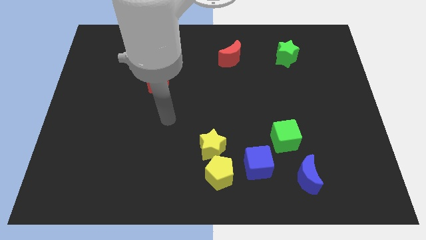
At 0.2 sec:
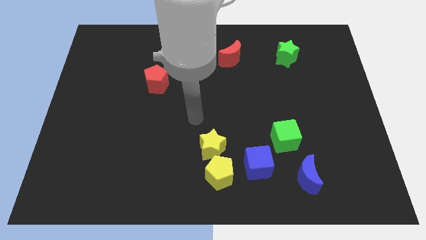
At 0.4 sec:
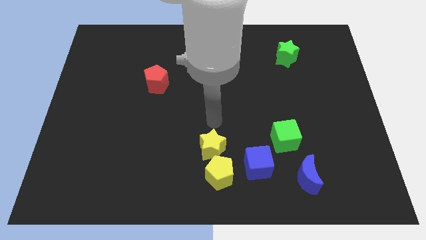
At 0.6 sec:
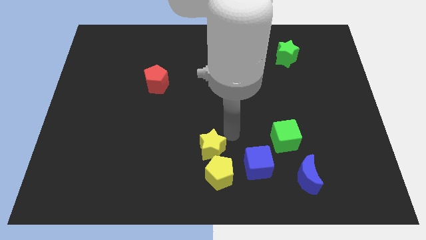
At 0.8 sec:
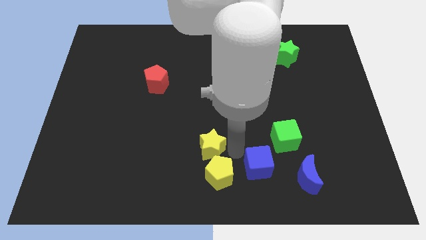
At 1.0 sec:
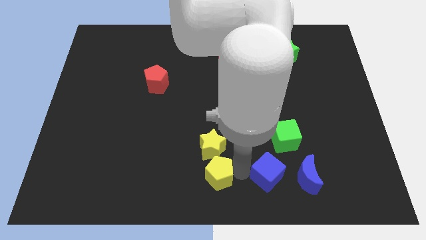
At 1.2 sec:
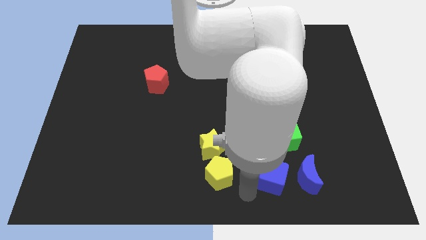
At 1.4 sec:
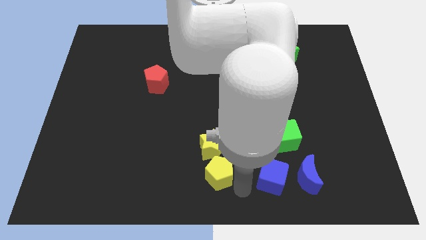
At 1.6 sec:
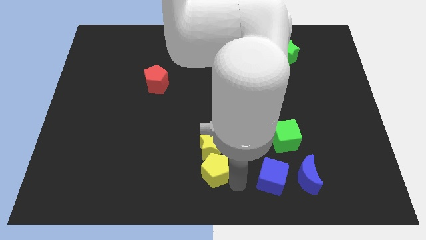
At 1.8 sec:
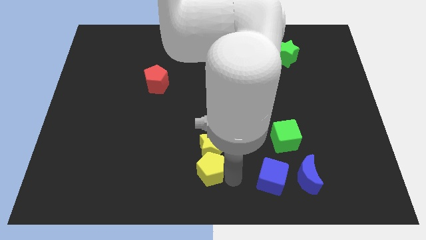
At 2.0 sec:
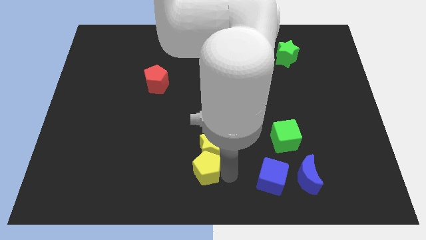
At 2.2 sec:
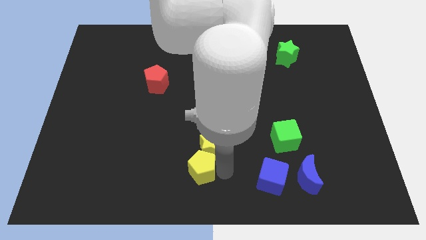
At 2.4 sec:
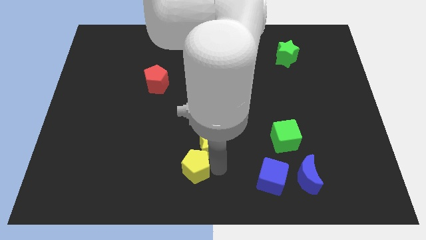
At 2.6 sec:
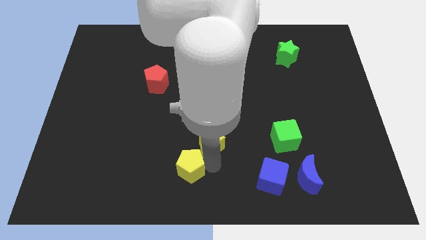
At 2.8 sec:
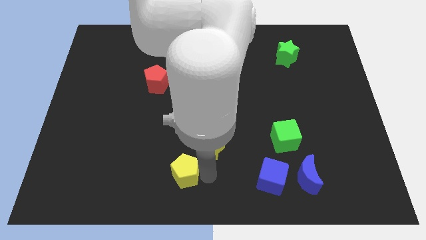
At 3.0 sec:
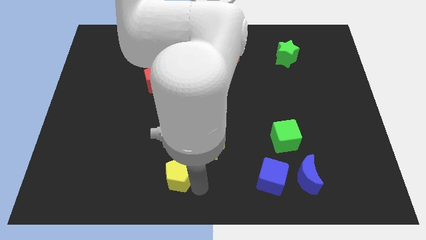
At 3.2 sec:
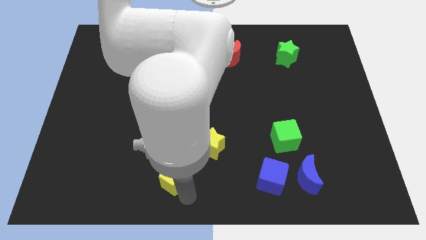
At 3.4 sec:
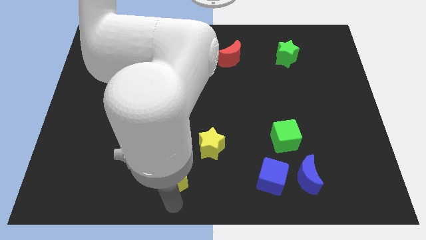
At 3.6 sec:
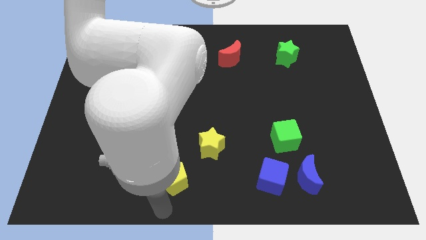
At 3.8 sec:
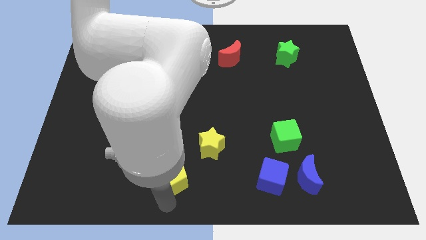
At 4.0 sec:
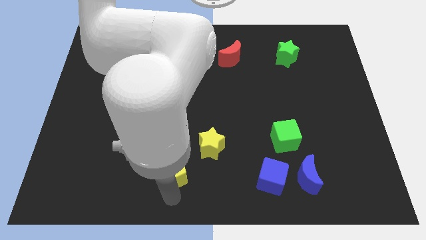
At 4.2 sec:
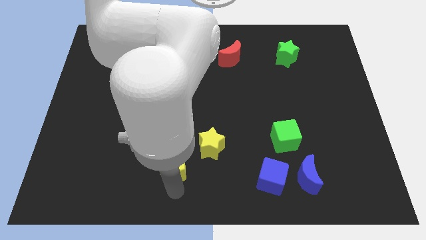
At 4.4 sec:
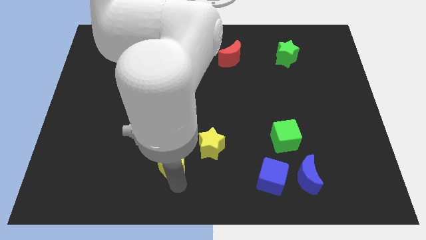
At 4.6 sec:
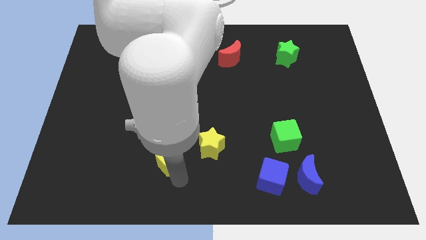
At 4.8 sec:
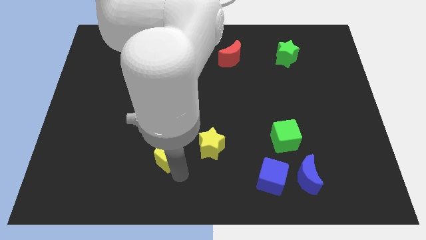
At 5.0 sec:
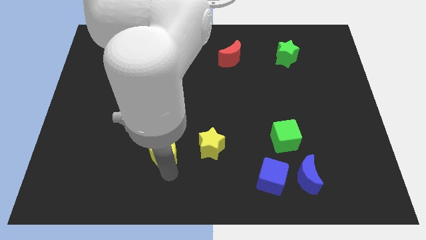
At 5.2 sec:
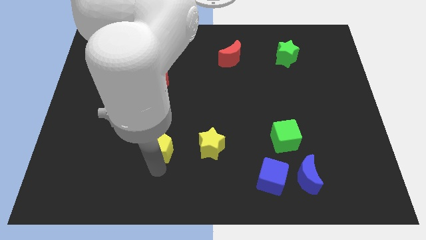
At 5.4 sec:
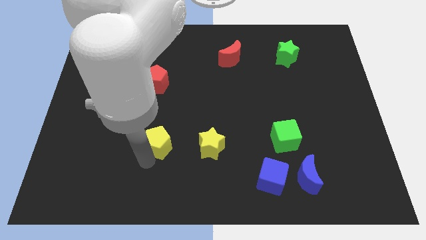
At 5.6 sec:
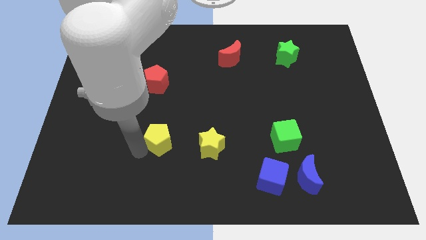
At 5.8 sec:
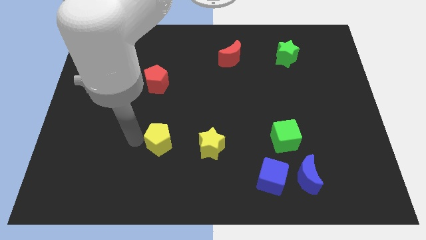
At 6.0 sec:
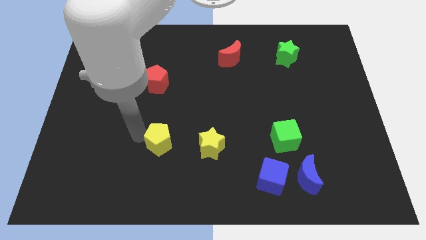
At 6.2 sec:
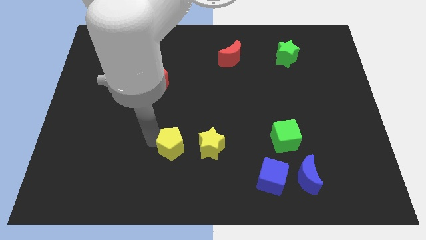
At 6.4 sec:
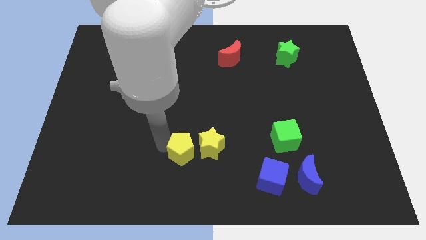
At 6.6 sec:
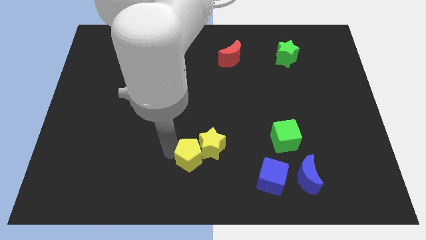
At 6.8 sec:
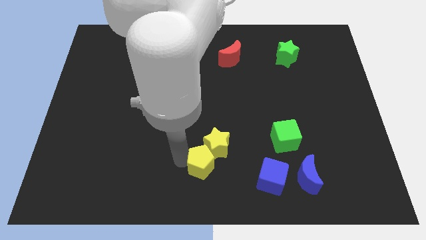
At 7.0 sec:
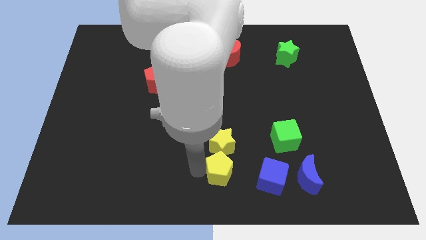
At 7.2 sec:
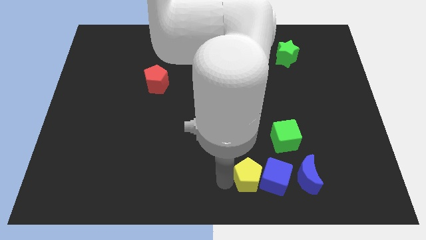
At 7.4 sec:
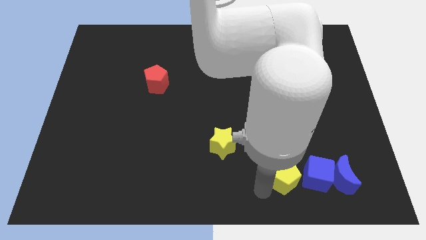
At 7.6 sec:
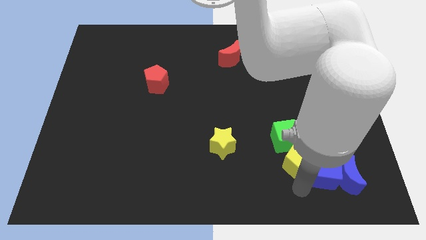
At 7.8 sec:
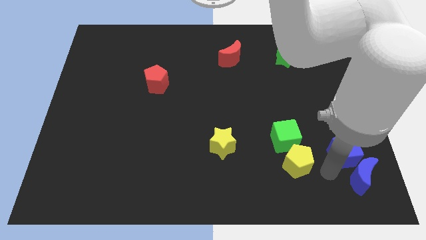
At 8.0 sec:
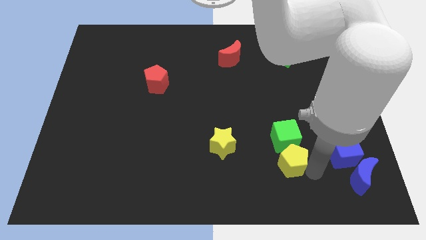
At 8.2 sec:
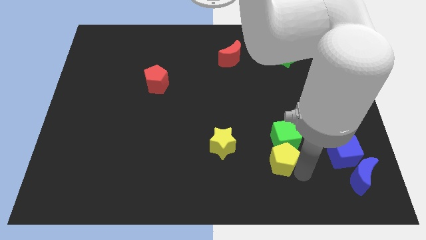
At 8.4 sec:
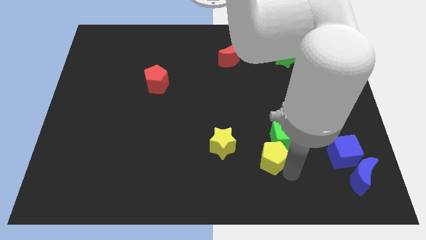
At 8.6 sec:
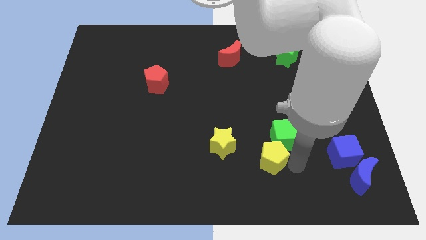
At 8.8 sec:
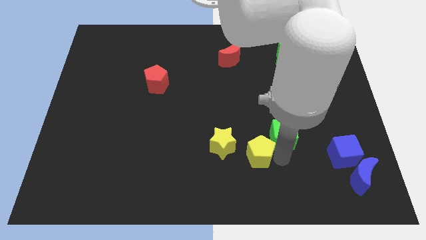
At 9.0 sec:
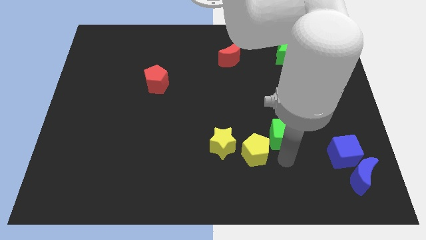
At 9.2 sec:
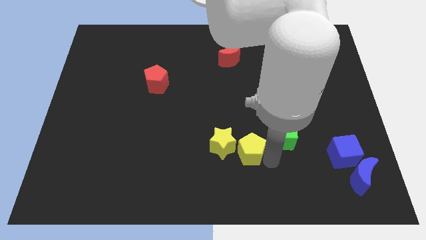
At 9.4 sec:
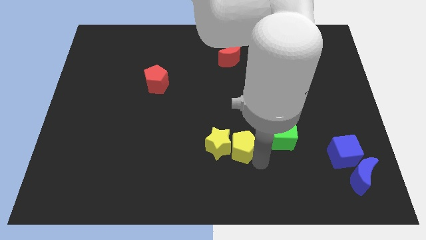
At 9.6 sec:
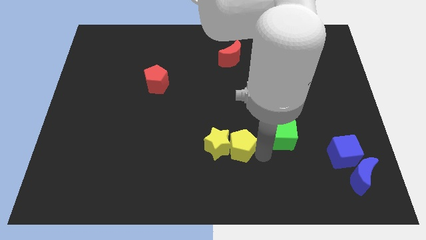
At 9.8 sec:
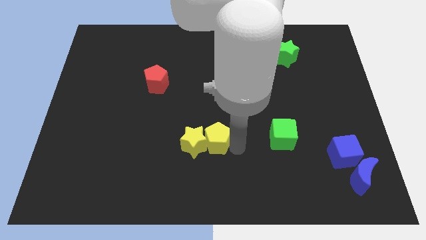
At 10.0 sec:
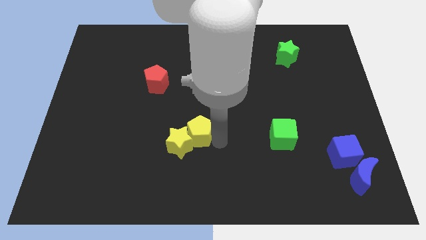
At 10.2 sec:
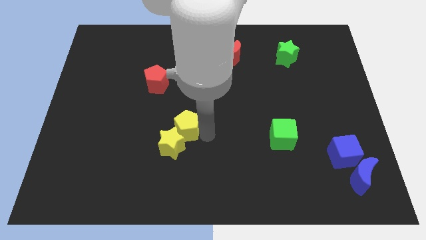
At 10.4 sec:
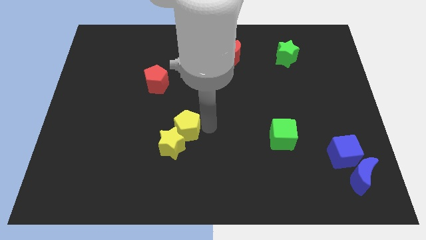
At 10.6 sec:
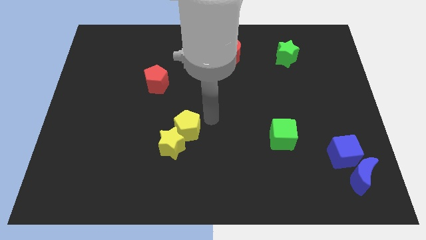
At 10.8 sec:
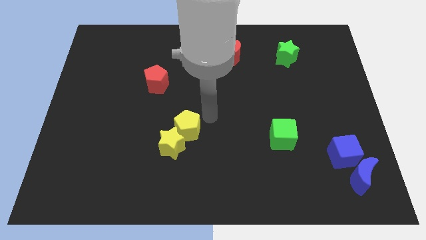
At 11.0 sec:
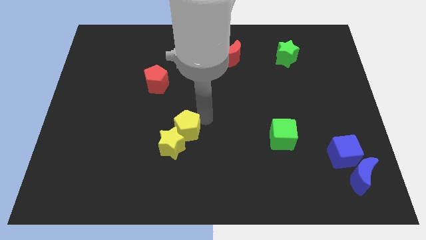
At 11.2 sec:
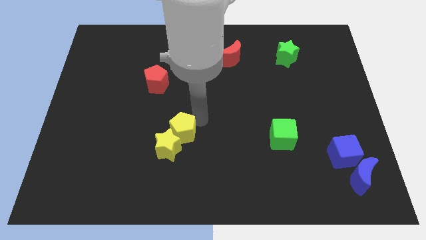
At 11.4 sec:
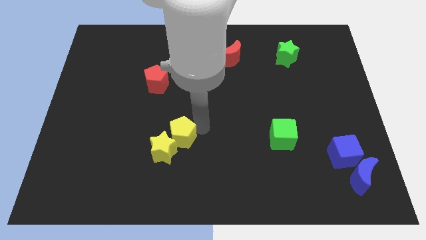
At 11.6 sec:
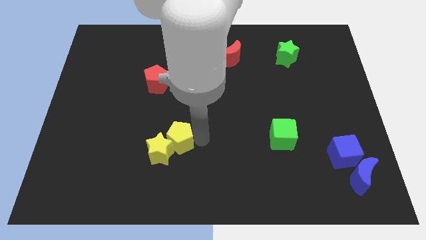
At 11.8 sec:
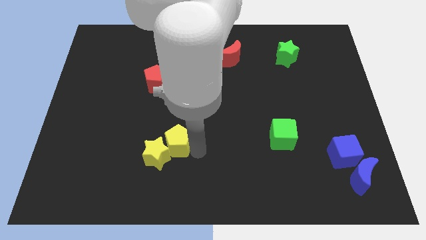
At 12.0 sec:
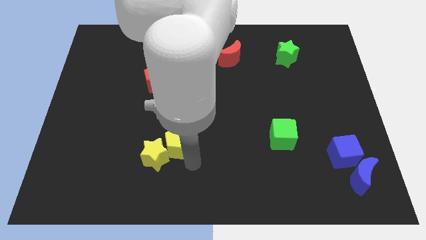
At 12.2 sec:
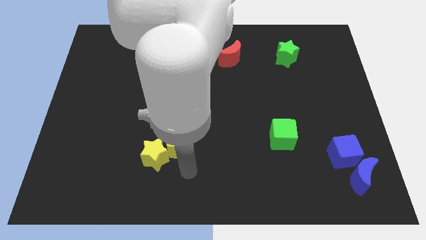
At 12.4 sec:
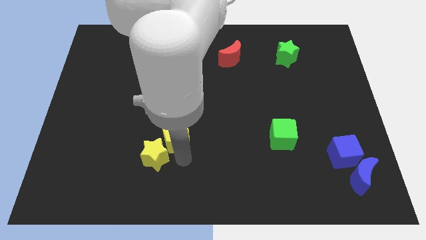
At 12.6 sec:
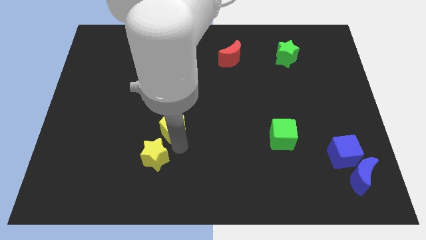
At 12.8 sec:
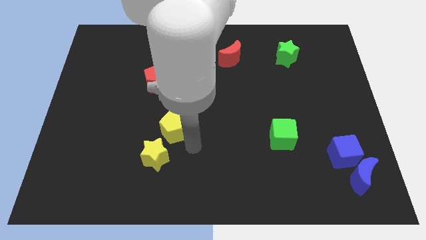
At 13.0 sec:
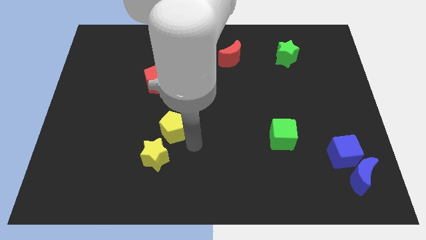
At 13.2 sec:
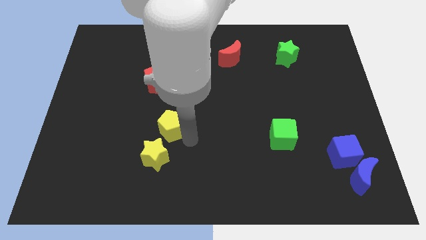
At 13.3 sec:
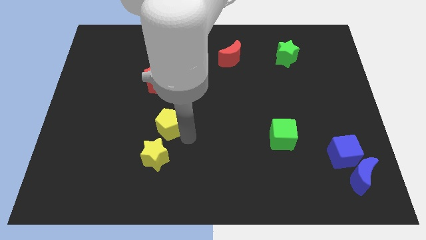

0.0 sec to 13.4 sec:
put the yellow pentagon to the bottom side of the red pentagon
